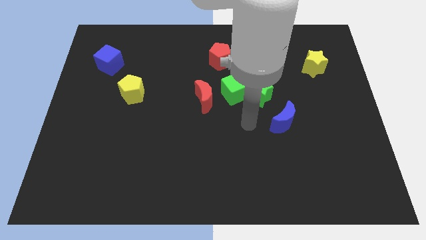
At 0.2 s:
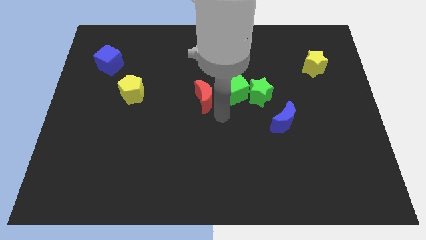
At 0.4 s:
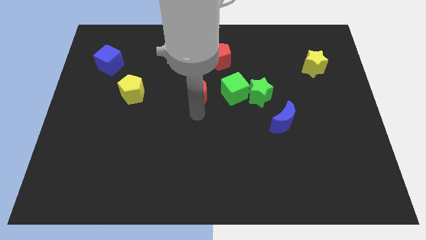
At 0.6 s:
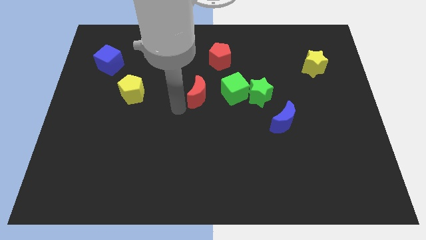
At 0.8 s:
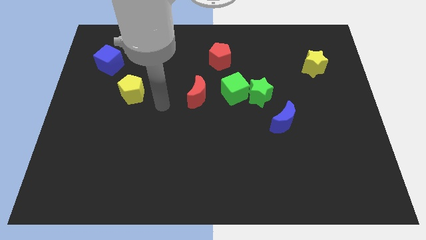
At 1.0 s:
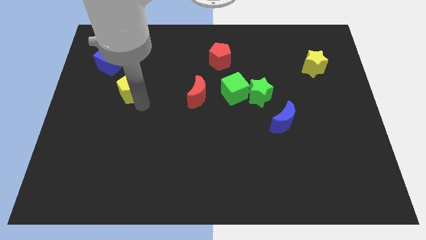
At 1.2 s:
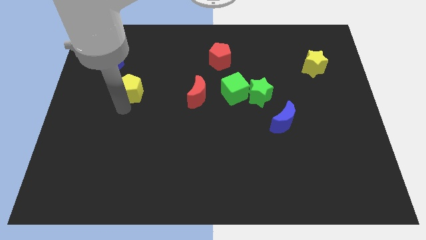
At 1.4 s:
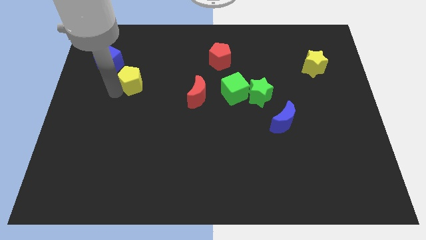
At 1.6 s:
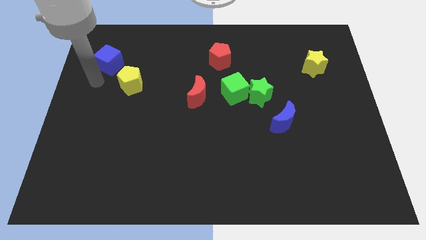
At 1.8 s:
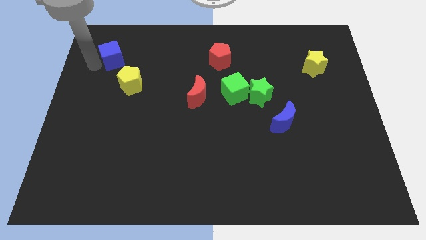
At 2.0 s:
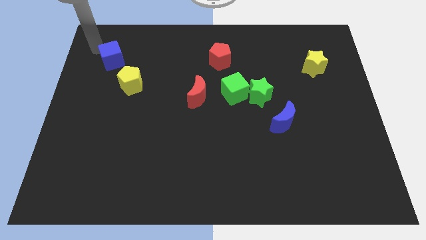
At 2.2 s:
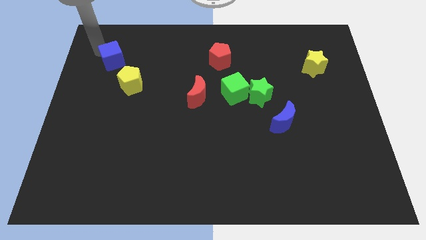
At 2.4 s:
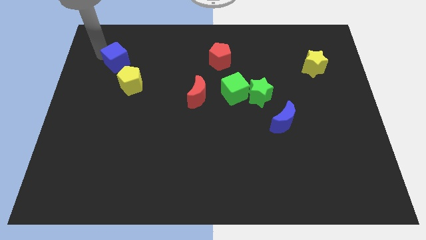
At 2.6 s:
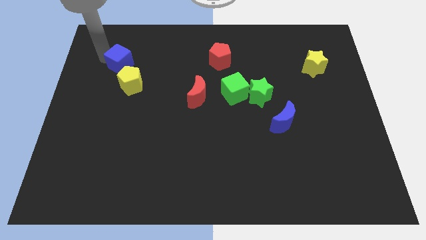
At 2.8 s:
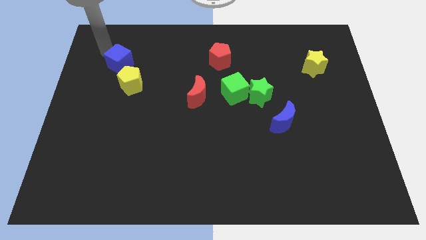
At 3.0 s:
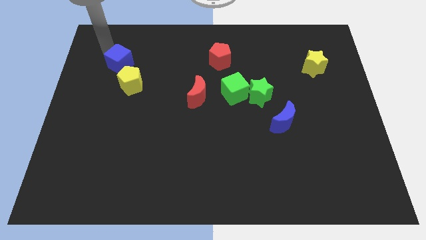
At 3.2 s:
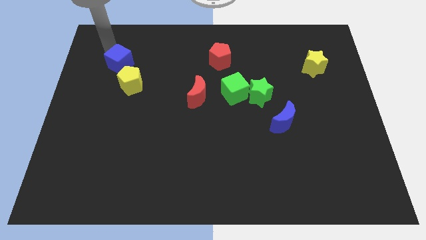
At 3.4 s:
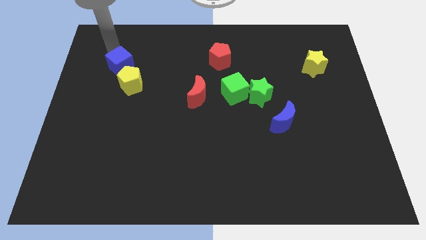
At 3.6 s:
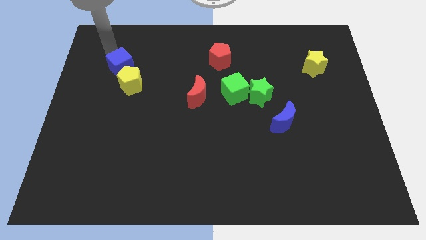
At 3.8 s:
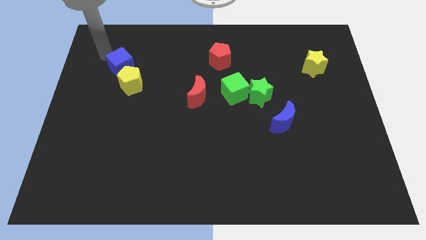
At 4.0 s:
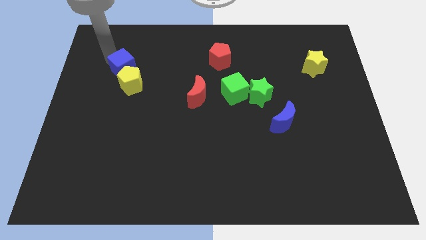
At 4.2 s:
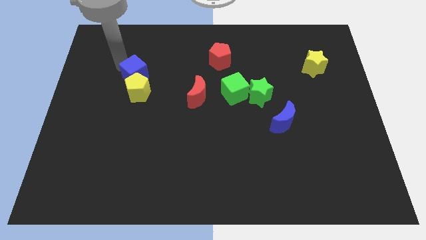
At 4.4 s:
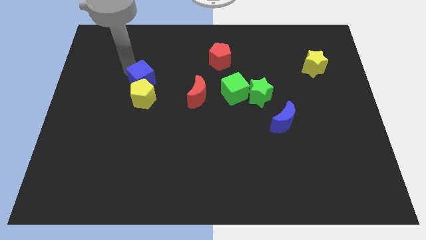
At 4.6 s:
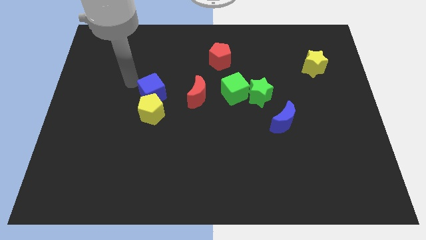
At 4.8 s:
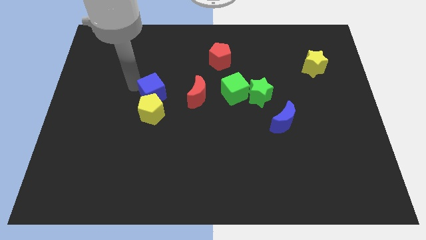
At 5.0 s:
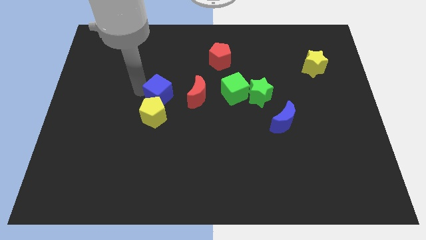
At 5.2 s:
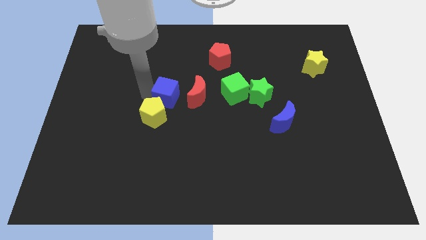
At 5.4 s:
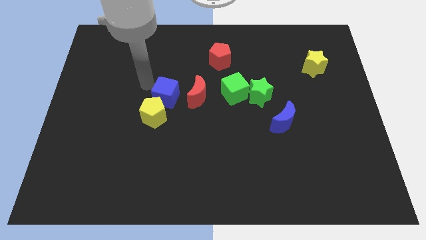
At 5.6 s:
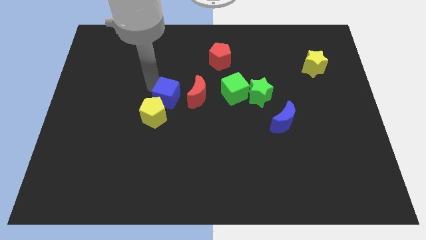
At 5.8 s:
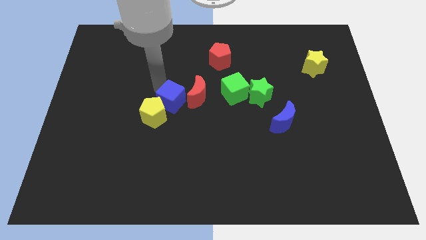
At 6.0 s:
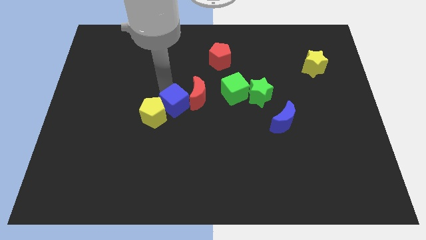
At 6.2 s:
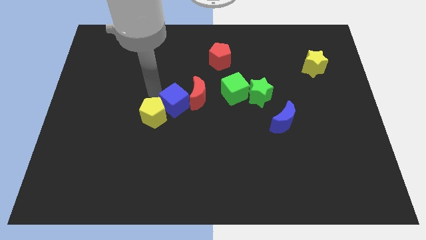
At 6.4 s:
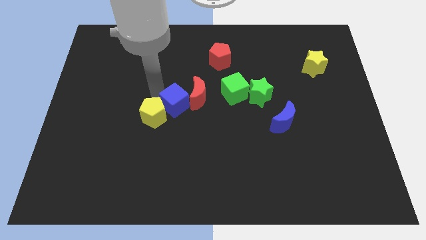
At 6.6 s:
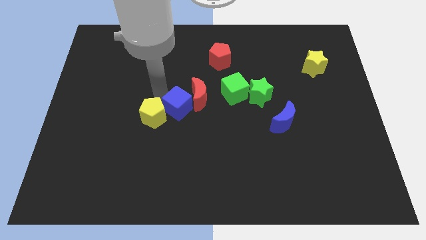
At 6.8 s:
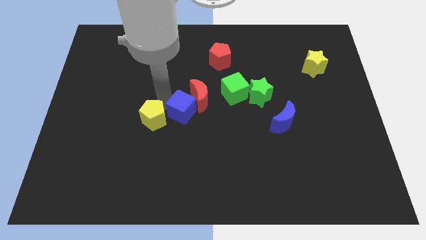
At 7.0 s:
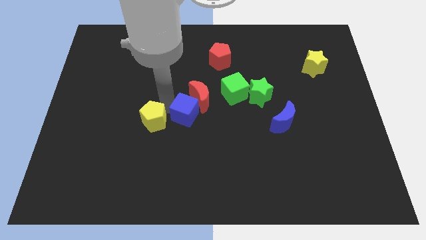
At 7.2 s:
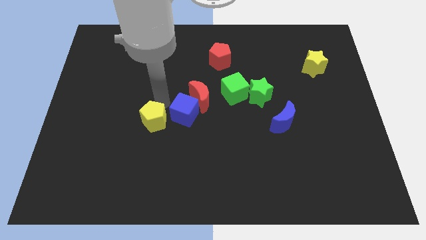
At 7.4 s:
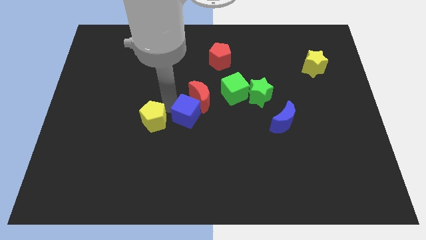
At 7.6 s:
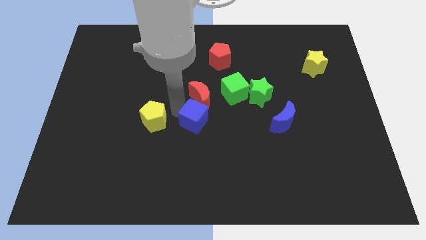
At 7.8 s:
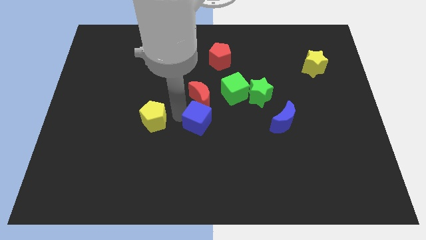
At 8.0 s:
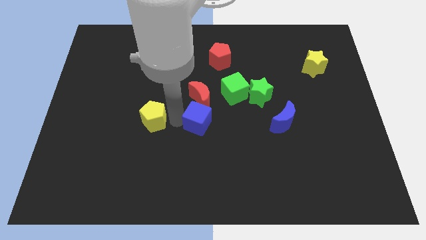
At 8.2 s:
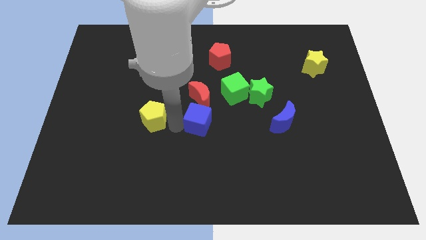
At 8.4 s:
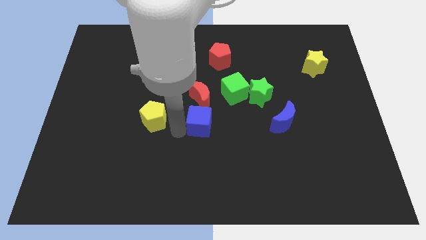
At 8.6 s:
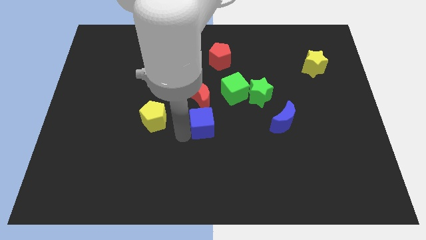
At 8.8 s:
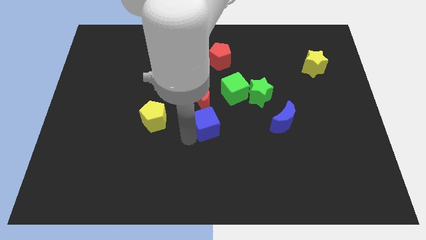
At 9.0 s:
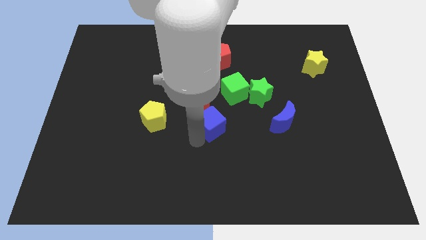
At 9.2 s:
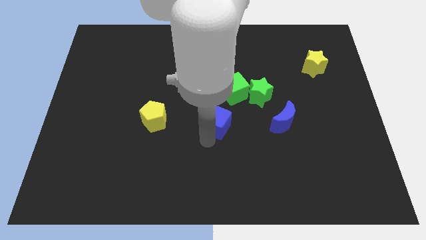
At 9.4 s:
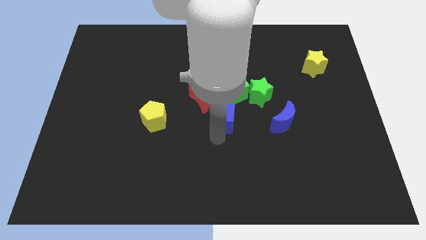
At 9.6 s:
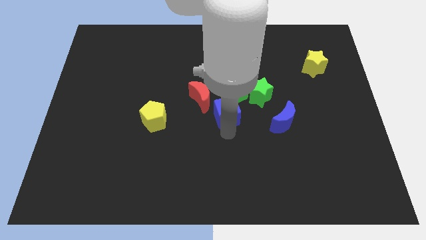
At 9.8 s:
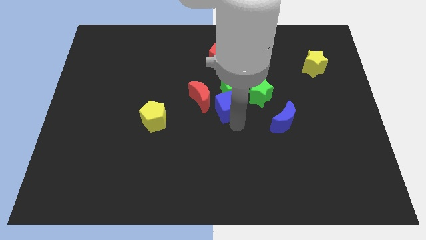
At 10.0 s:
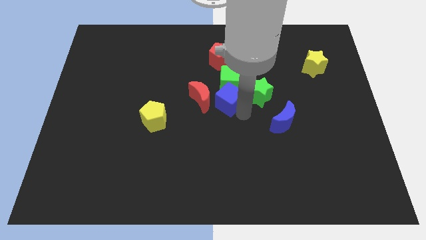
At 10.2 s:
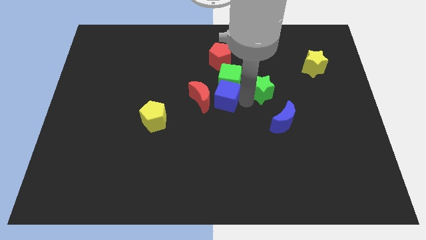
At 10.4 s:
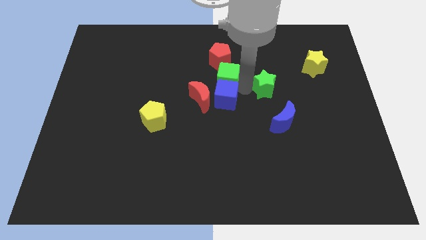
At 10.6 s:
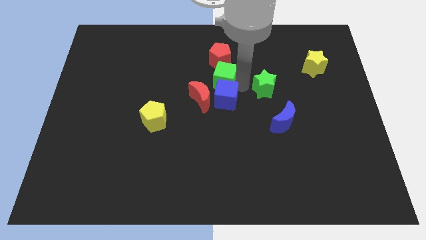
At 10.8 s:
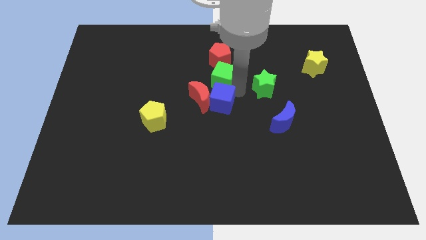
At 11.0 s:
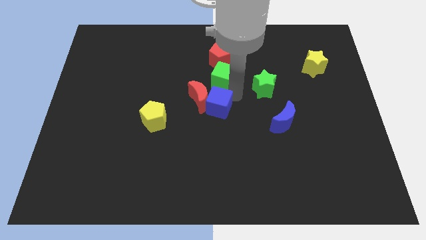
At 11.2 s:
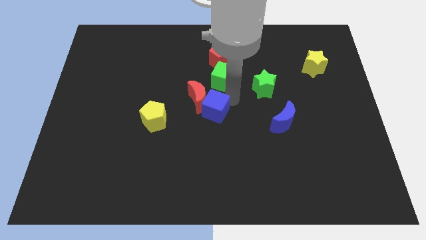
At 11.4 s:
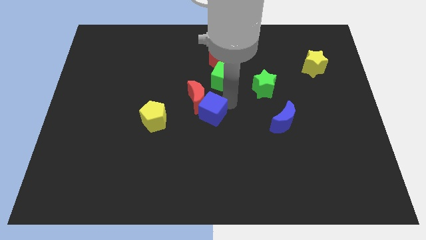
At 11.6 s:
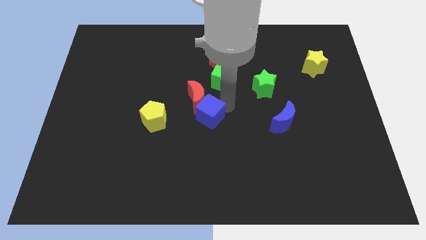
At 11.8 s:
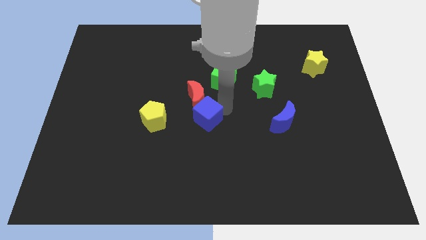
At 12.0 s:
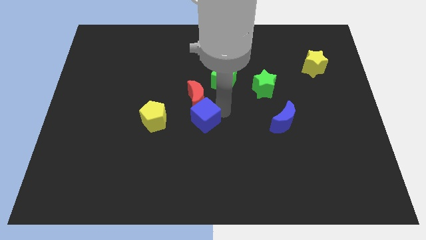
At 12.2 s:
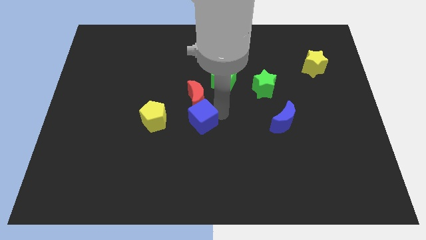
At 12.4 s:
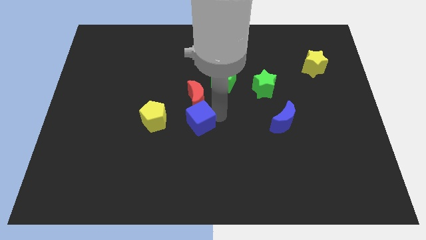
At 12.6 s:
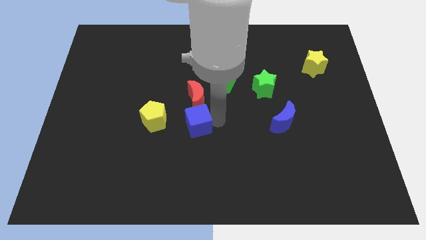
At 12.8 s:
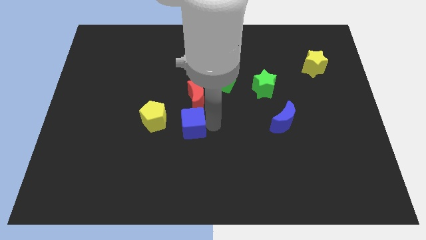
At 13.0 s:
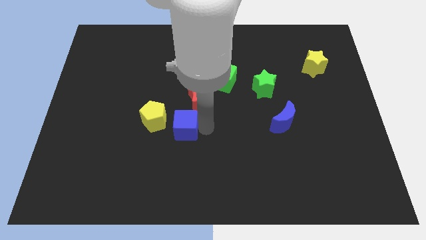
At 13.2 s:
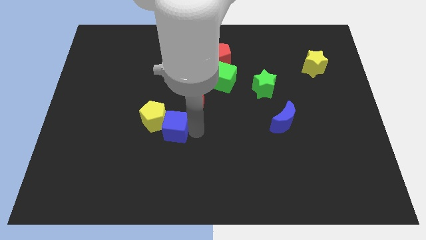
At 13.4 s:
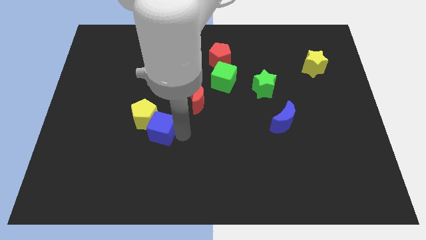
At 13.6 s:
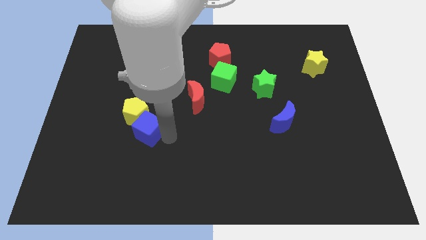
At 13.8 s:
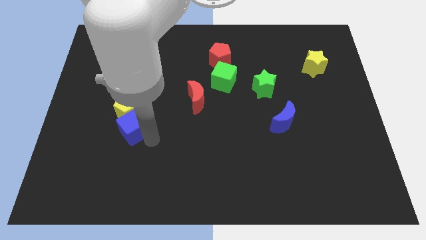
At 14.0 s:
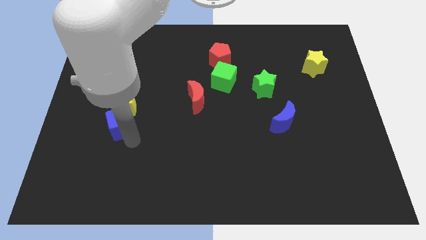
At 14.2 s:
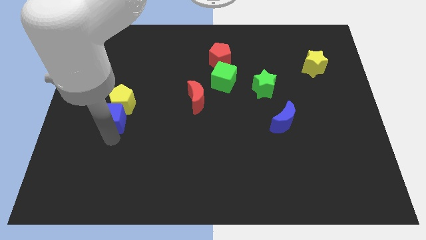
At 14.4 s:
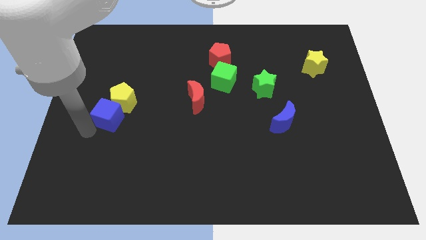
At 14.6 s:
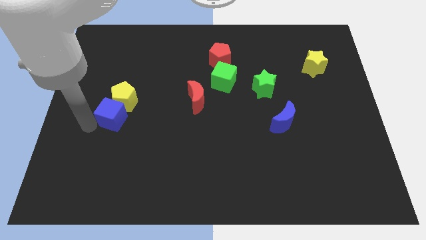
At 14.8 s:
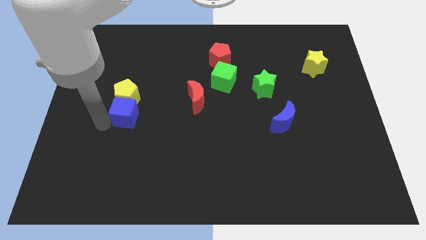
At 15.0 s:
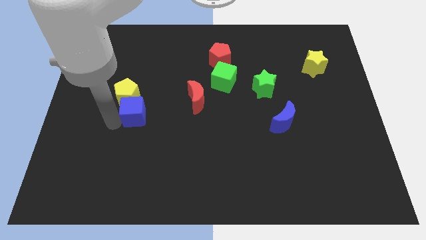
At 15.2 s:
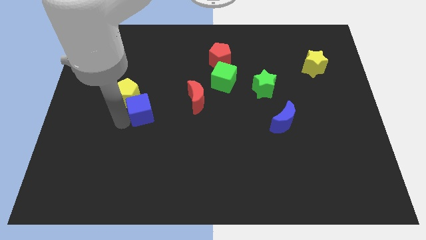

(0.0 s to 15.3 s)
push the blue cube to the right of the yellow pentagon
